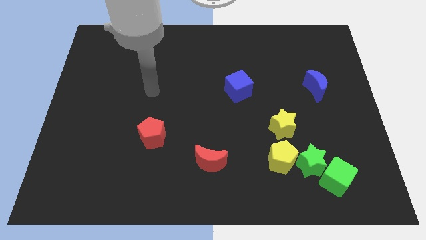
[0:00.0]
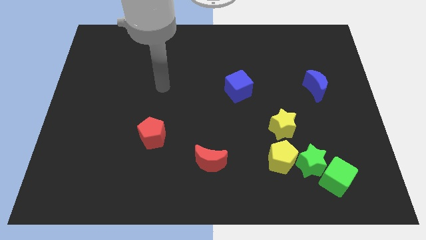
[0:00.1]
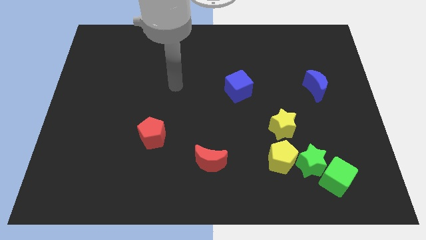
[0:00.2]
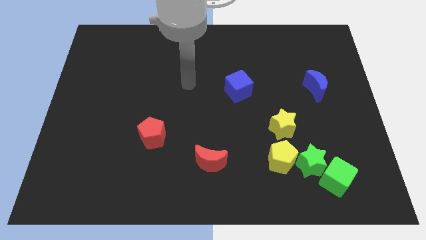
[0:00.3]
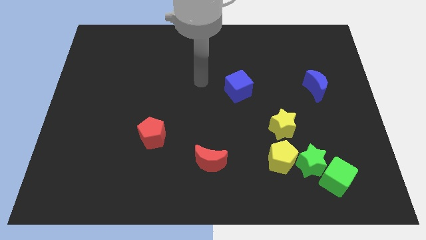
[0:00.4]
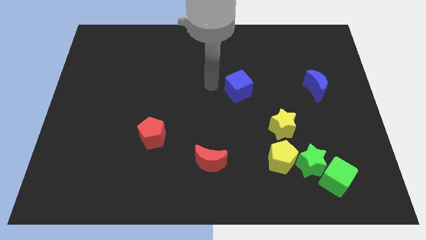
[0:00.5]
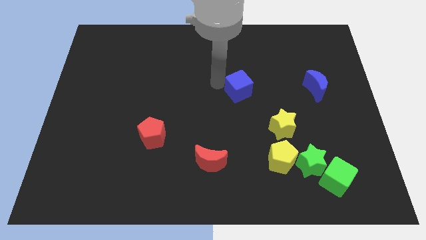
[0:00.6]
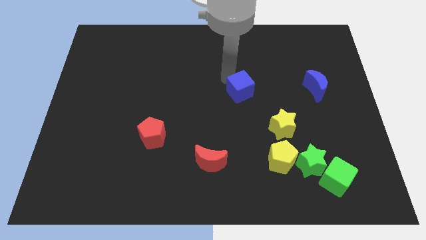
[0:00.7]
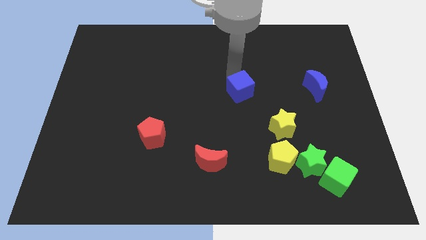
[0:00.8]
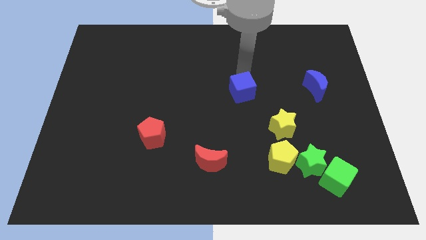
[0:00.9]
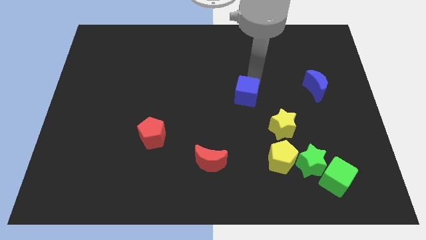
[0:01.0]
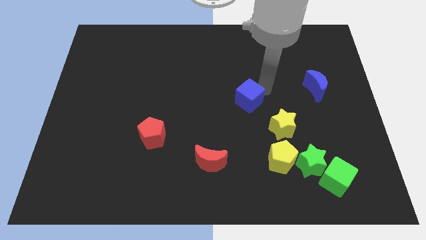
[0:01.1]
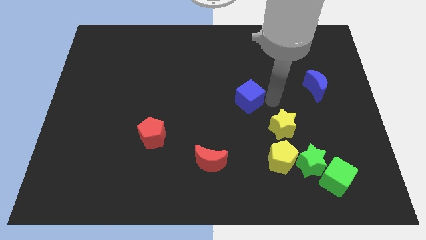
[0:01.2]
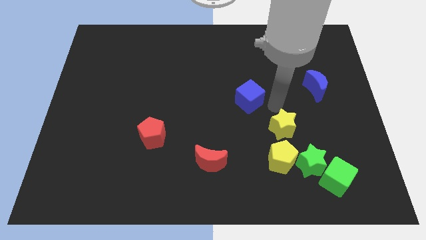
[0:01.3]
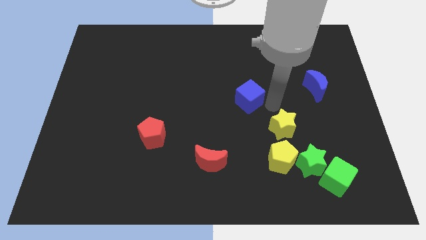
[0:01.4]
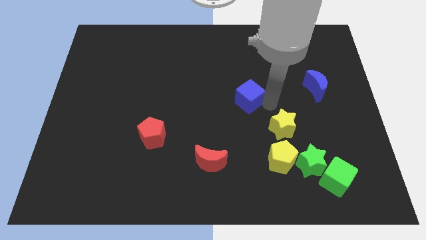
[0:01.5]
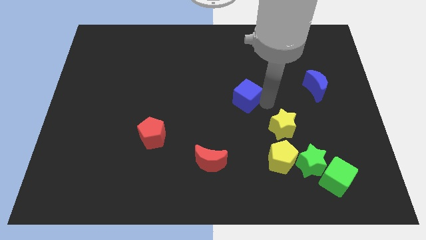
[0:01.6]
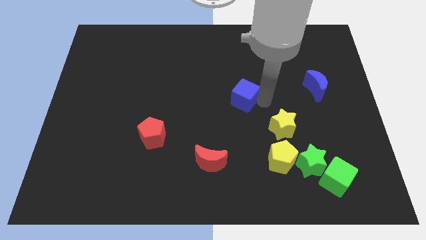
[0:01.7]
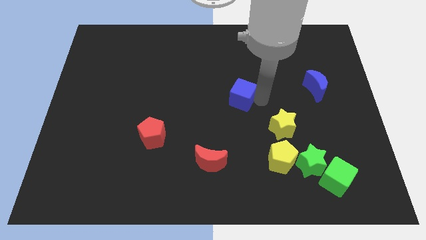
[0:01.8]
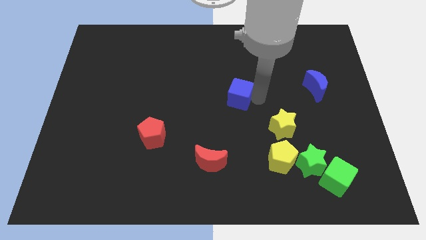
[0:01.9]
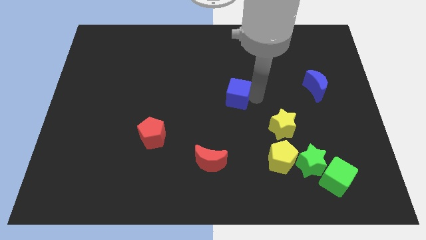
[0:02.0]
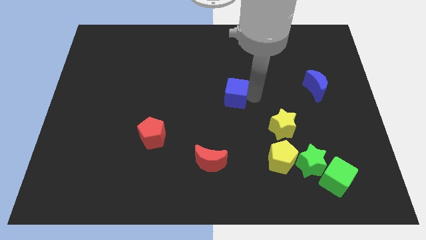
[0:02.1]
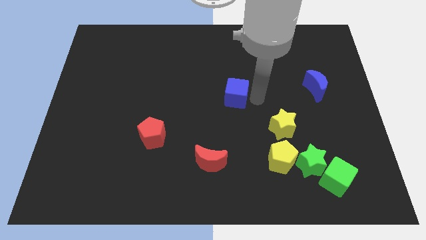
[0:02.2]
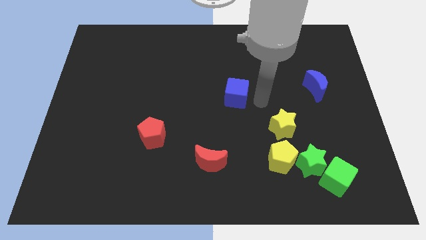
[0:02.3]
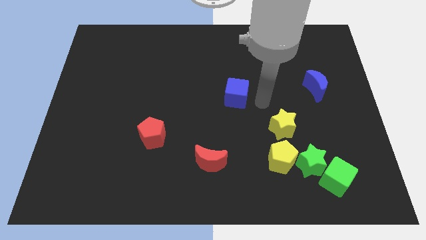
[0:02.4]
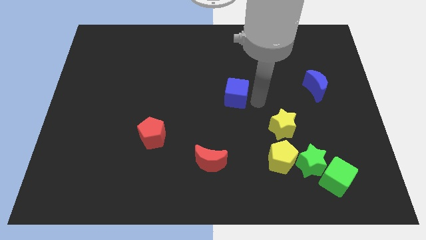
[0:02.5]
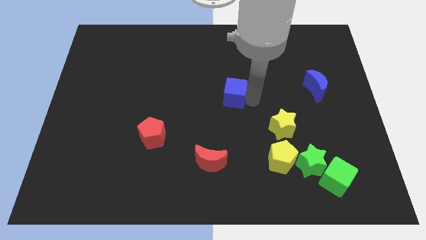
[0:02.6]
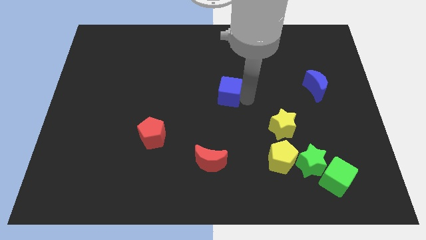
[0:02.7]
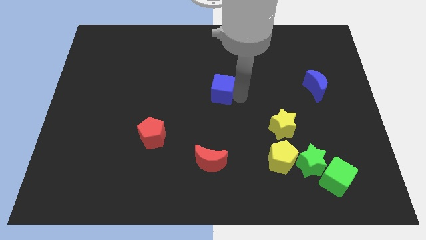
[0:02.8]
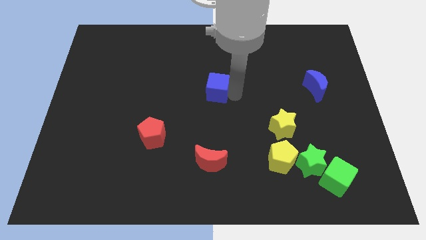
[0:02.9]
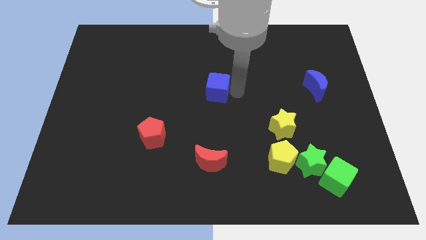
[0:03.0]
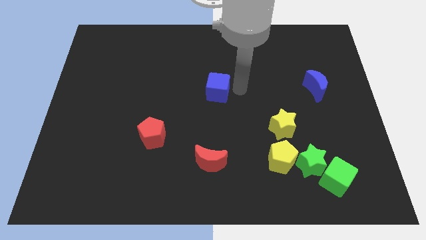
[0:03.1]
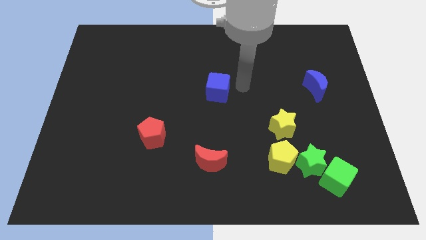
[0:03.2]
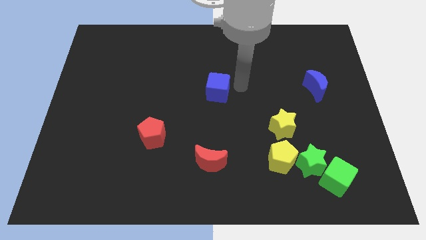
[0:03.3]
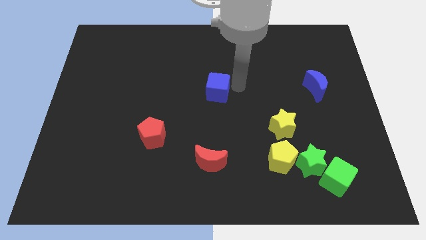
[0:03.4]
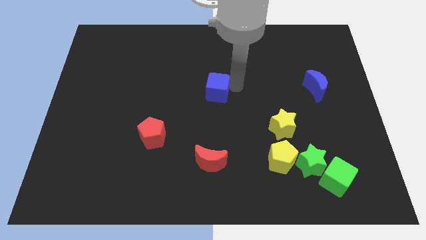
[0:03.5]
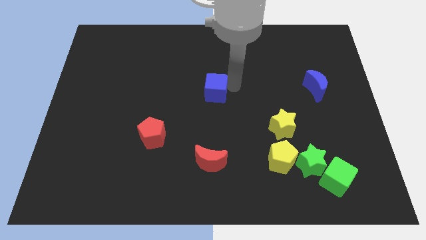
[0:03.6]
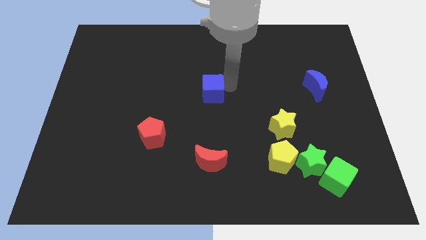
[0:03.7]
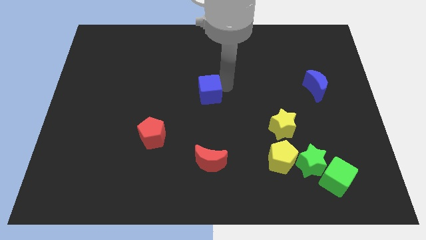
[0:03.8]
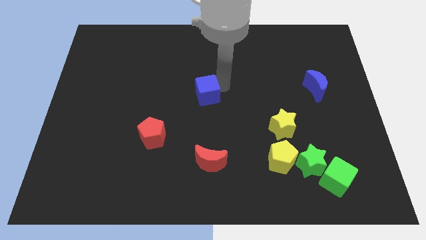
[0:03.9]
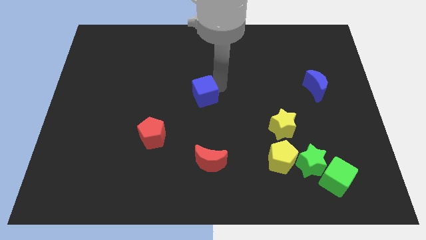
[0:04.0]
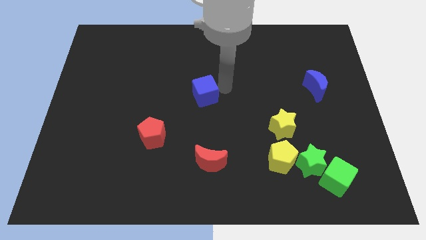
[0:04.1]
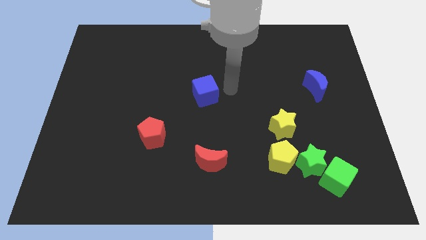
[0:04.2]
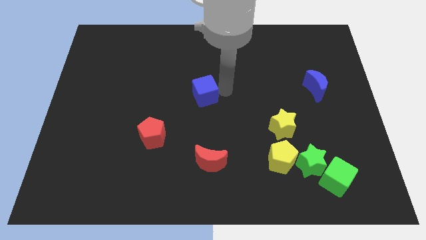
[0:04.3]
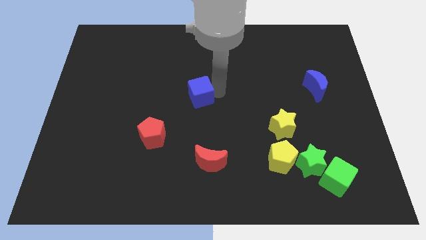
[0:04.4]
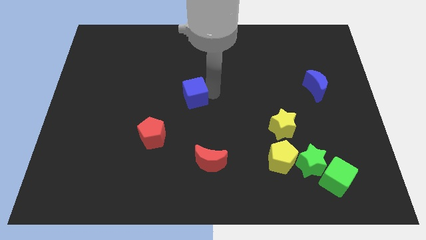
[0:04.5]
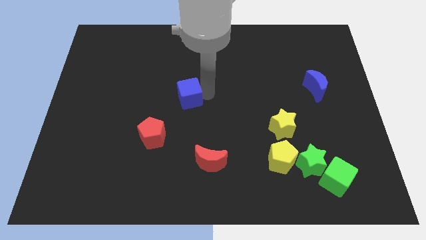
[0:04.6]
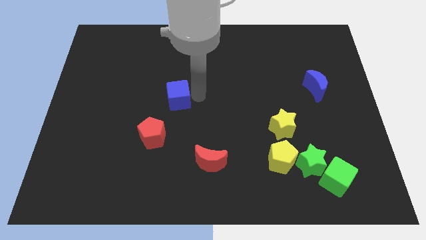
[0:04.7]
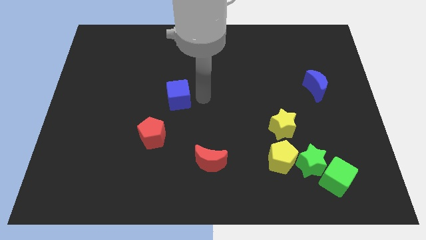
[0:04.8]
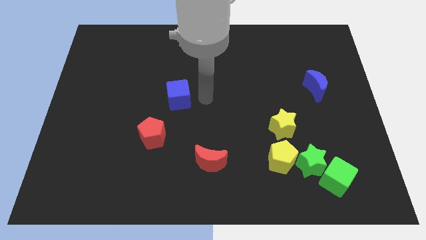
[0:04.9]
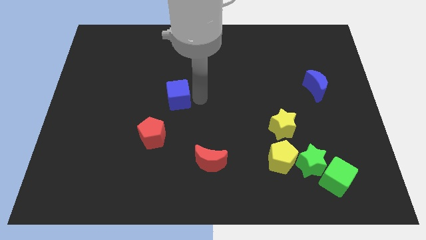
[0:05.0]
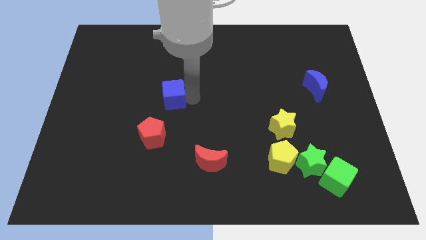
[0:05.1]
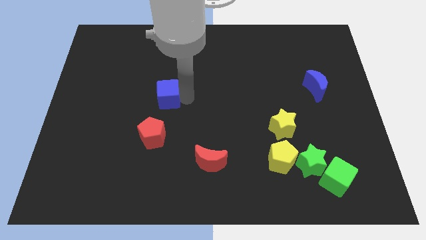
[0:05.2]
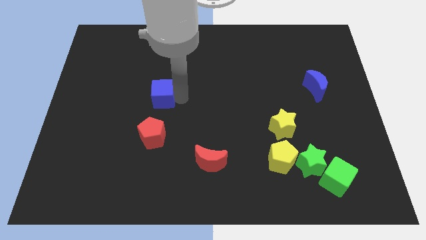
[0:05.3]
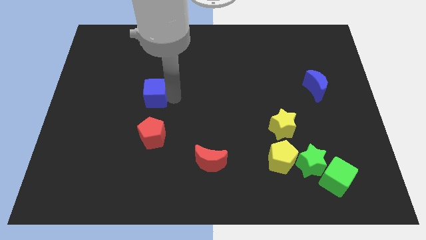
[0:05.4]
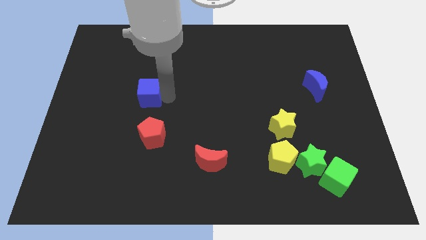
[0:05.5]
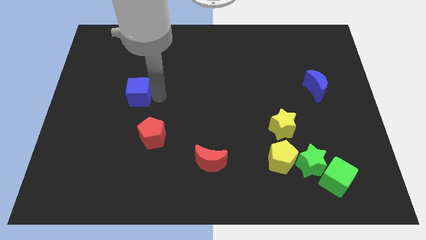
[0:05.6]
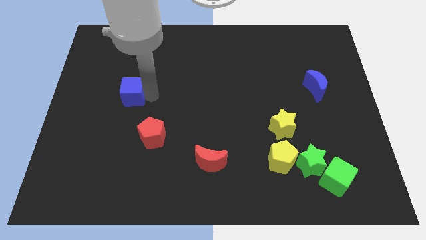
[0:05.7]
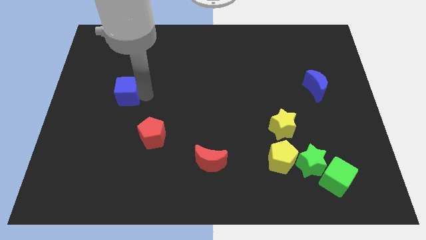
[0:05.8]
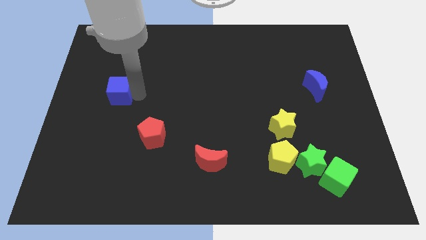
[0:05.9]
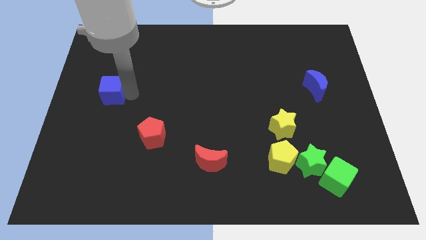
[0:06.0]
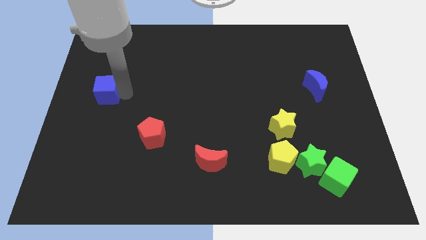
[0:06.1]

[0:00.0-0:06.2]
slide the blue cube to the center left

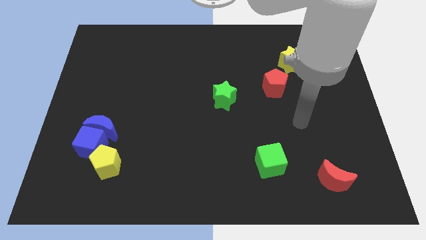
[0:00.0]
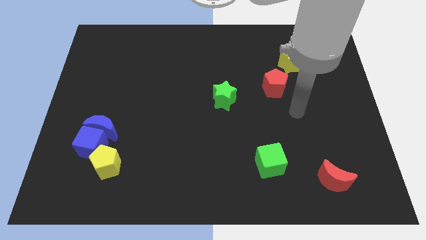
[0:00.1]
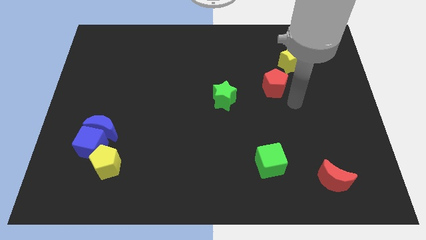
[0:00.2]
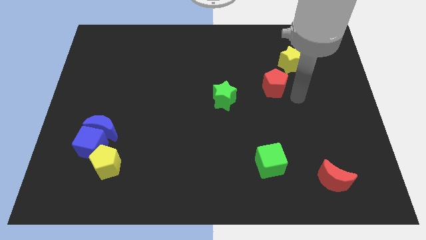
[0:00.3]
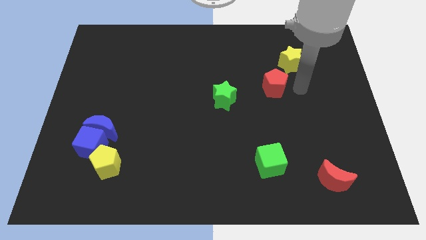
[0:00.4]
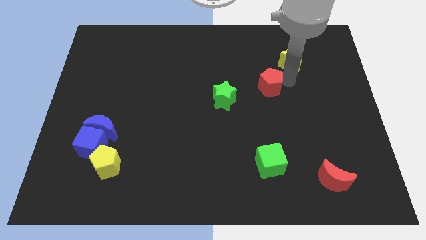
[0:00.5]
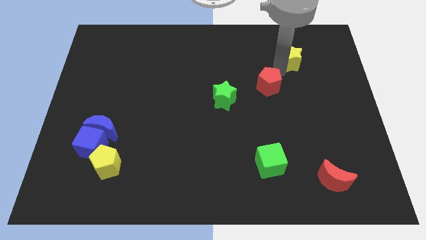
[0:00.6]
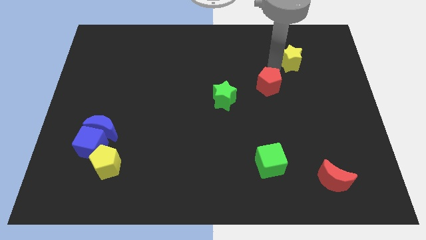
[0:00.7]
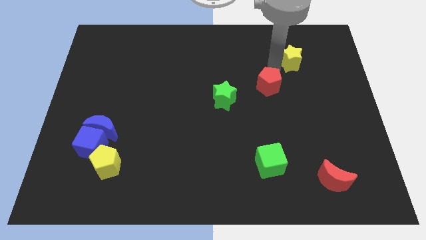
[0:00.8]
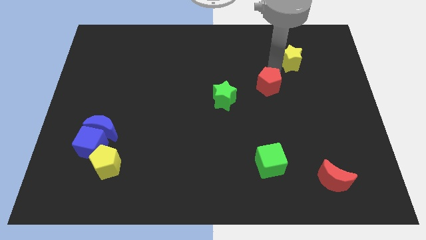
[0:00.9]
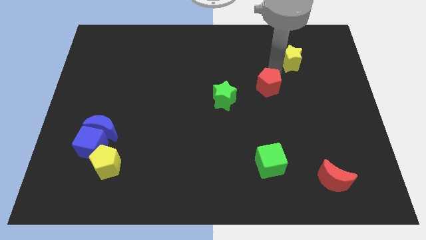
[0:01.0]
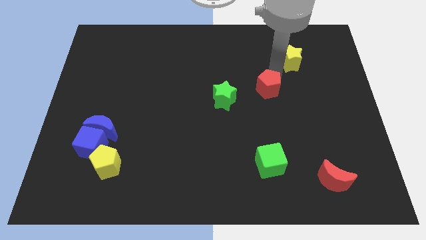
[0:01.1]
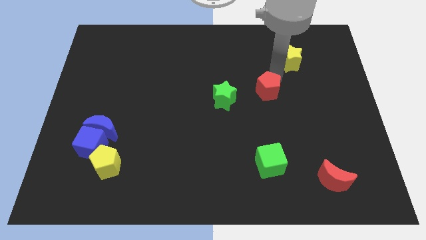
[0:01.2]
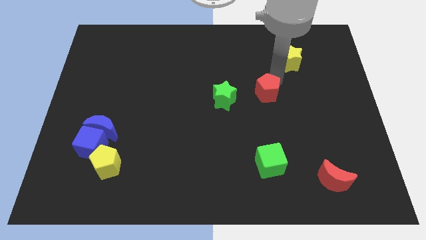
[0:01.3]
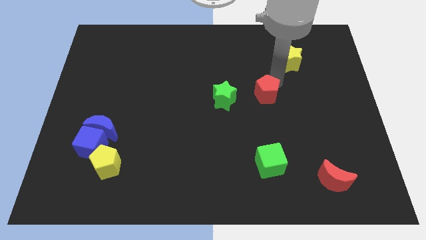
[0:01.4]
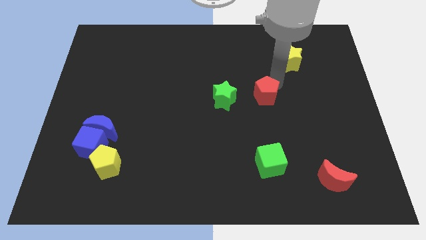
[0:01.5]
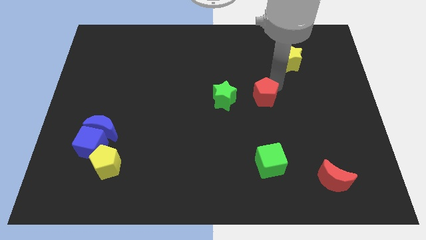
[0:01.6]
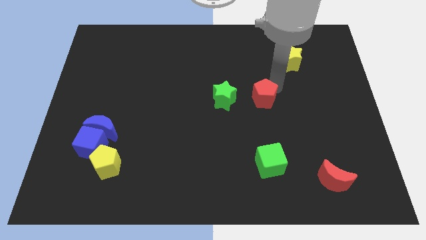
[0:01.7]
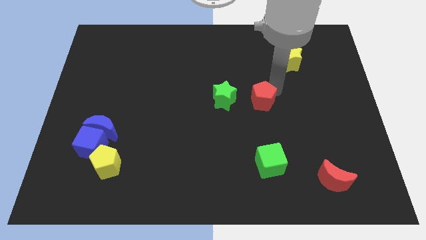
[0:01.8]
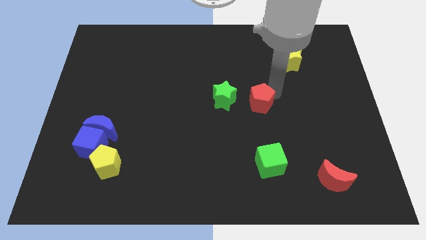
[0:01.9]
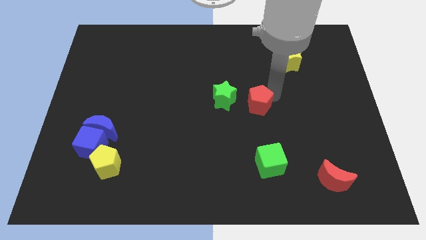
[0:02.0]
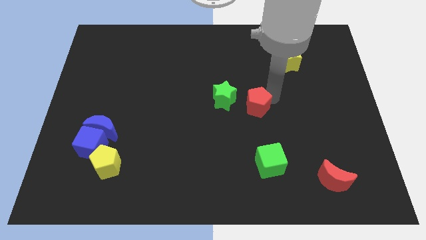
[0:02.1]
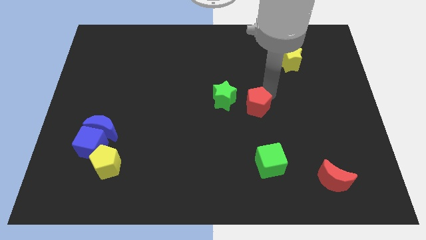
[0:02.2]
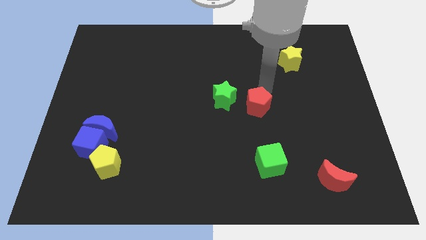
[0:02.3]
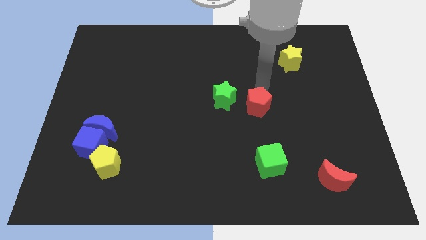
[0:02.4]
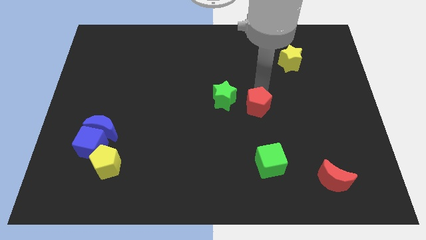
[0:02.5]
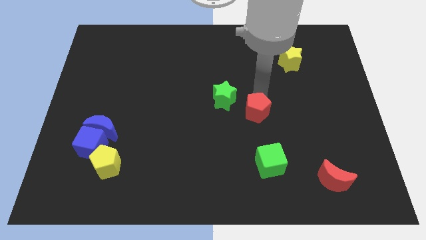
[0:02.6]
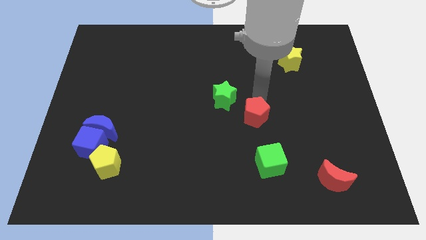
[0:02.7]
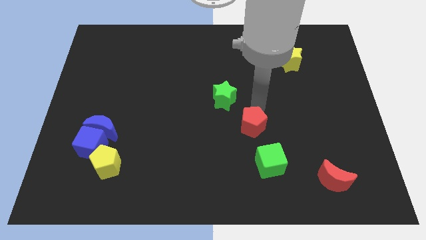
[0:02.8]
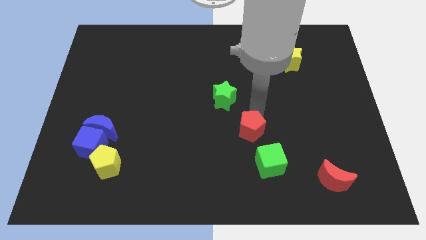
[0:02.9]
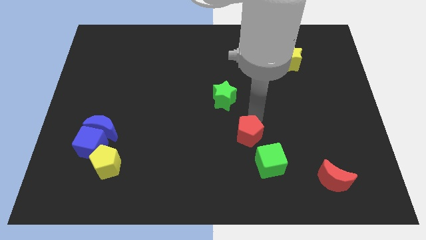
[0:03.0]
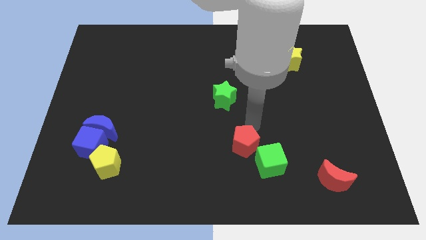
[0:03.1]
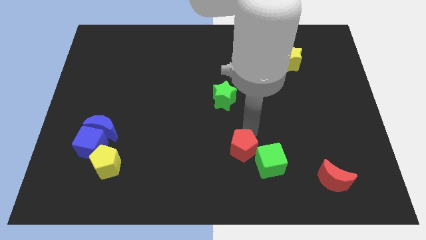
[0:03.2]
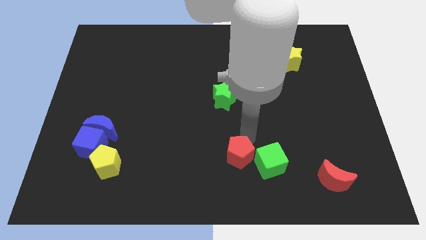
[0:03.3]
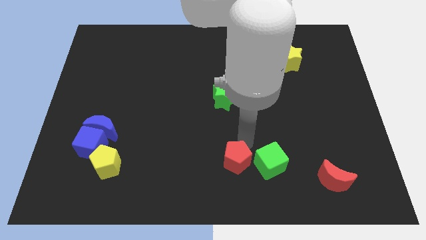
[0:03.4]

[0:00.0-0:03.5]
put the red pentagon to the bottom side
